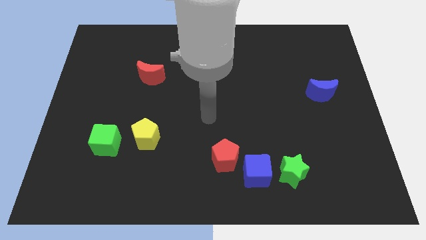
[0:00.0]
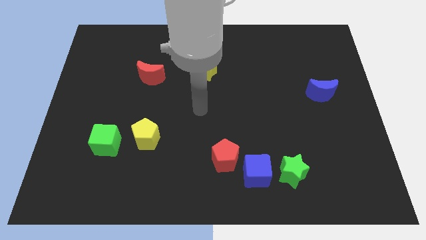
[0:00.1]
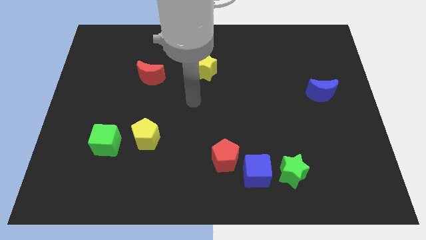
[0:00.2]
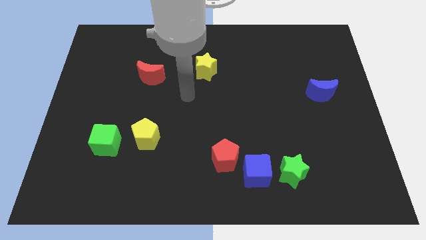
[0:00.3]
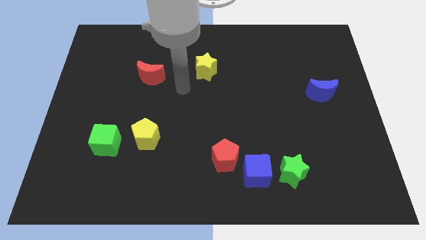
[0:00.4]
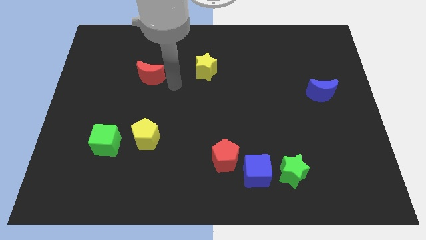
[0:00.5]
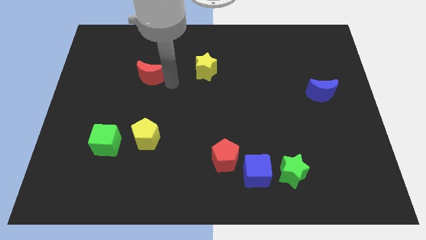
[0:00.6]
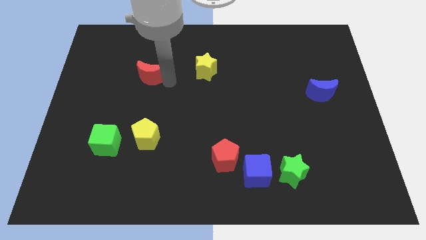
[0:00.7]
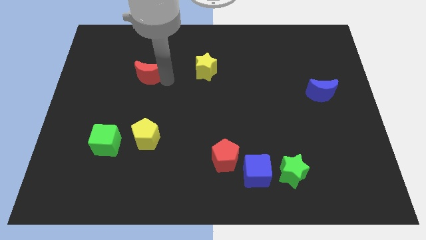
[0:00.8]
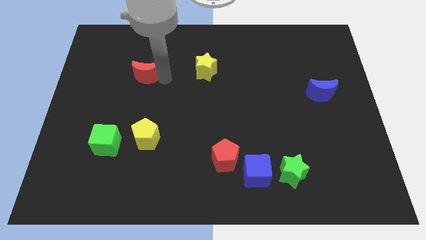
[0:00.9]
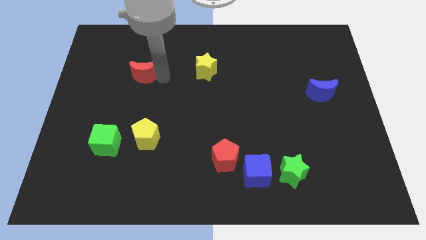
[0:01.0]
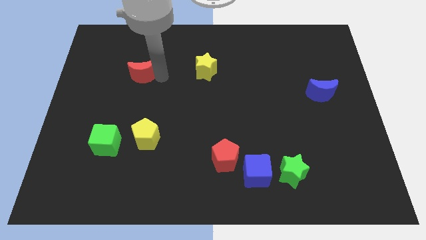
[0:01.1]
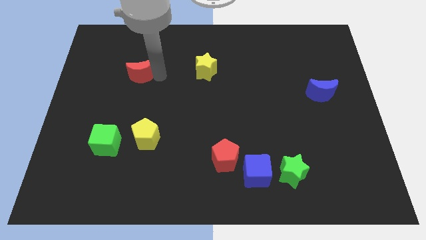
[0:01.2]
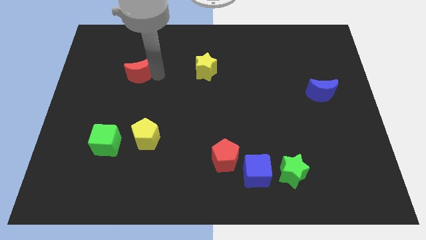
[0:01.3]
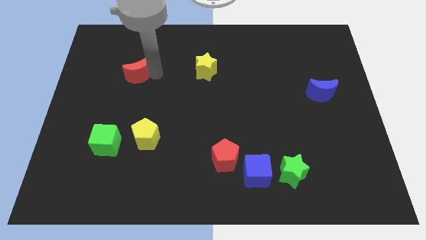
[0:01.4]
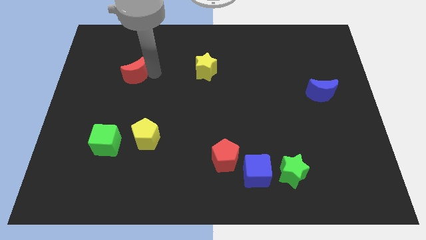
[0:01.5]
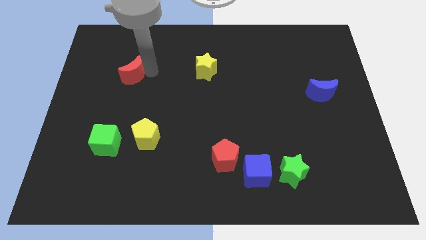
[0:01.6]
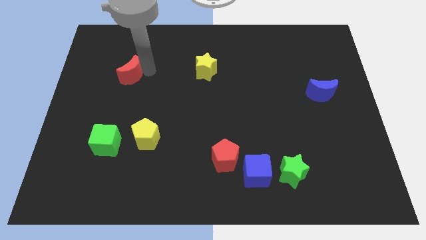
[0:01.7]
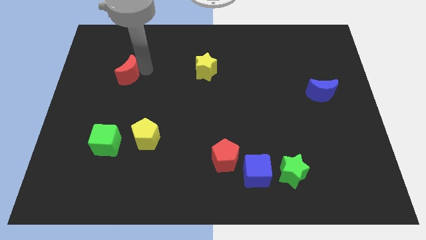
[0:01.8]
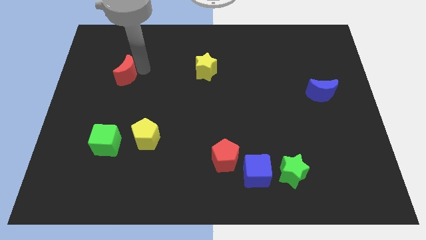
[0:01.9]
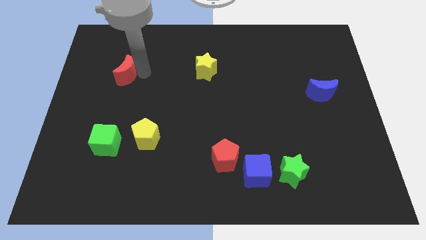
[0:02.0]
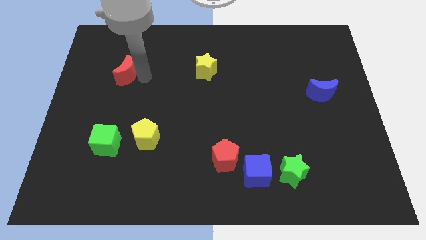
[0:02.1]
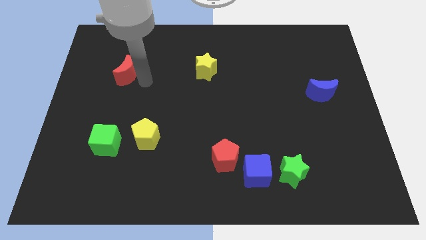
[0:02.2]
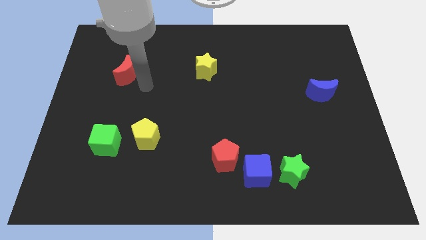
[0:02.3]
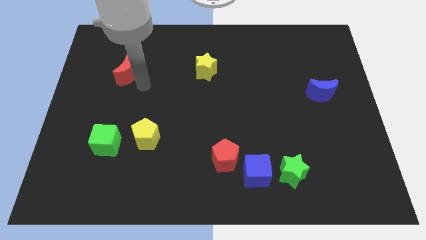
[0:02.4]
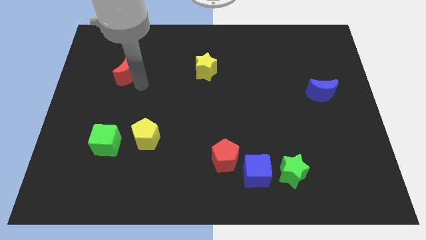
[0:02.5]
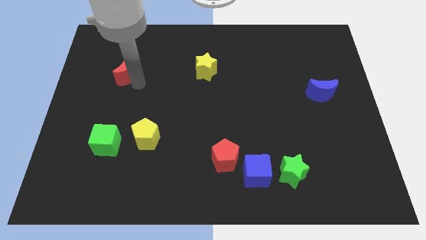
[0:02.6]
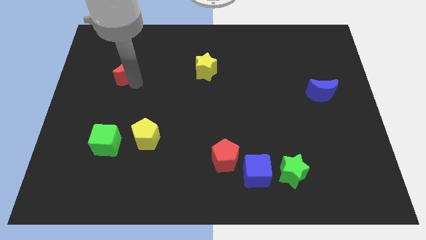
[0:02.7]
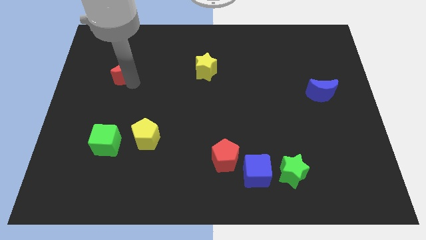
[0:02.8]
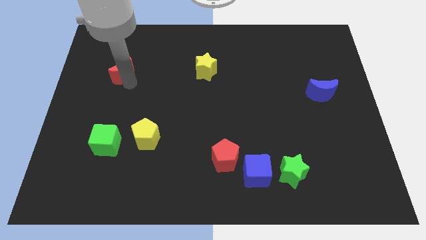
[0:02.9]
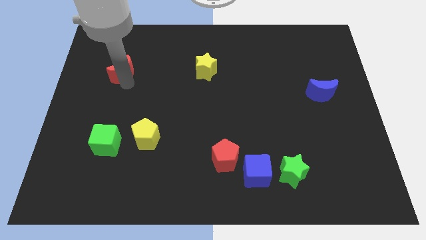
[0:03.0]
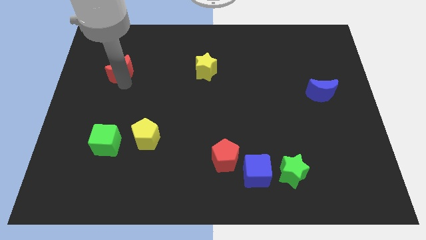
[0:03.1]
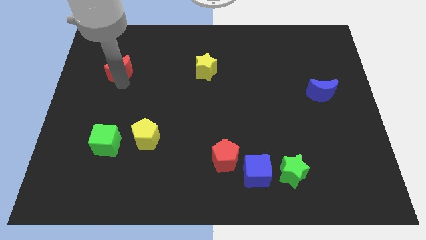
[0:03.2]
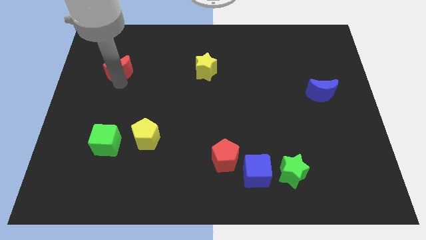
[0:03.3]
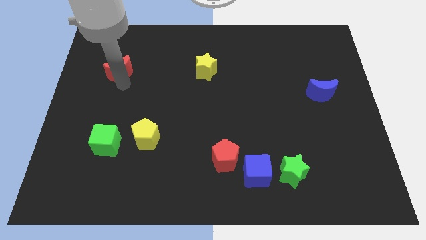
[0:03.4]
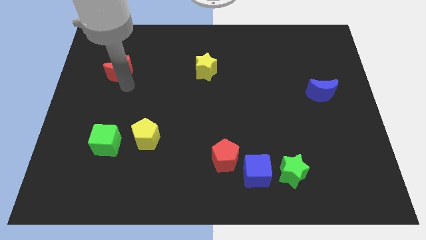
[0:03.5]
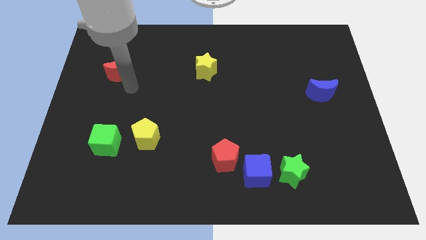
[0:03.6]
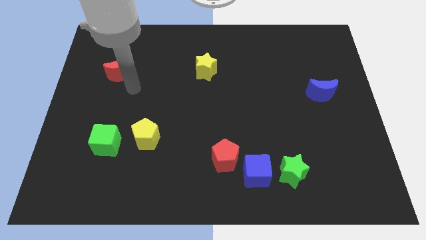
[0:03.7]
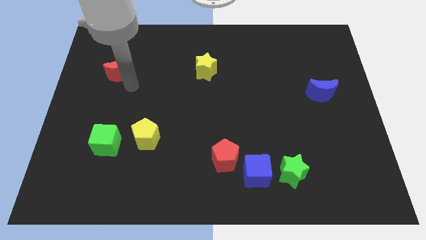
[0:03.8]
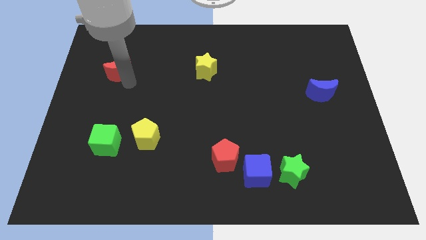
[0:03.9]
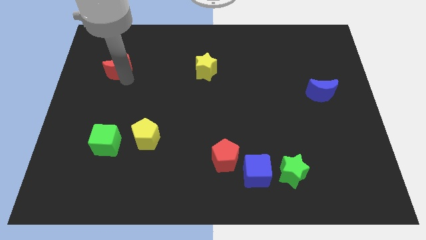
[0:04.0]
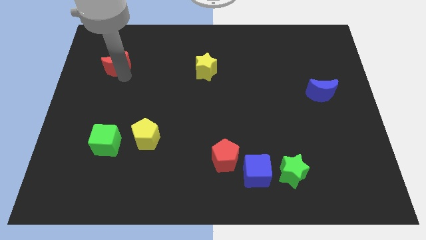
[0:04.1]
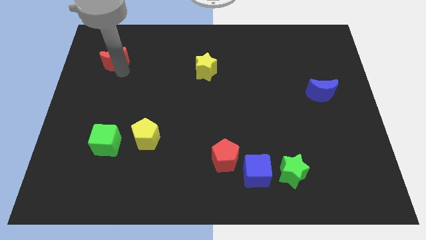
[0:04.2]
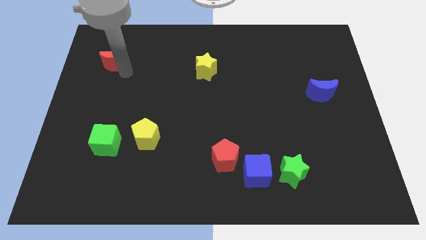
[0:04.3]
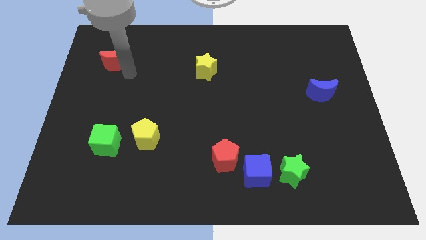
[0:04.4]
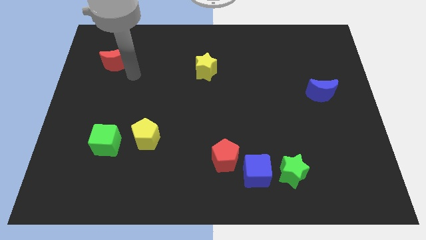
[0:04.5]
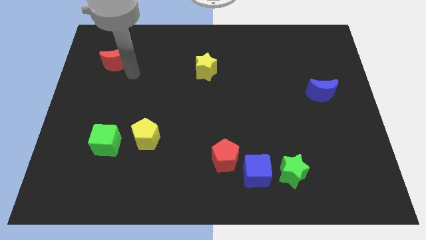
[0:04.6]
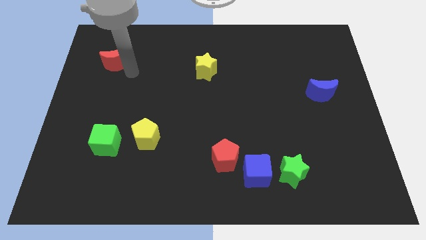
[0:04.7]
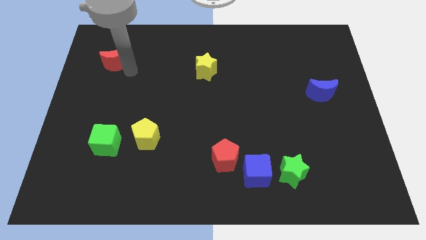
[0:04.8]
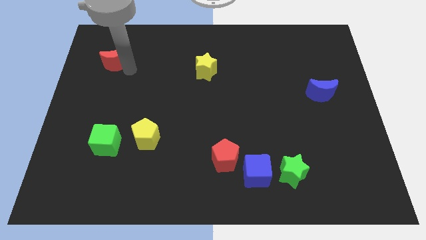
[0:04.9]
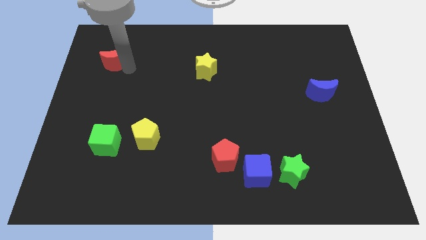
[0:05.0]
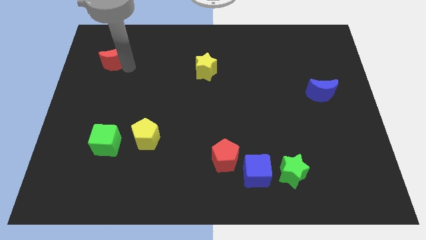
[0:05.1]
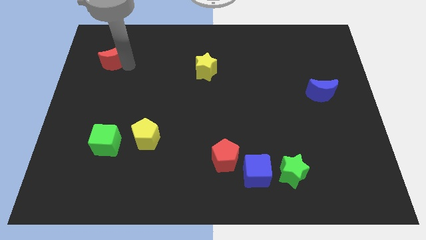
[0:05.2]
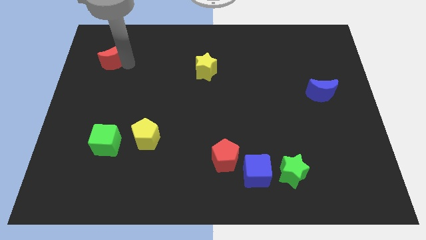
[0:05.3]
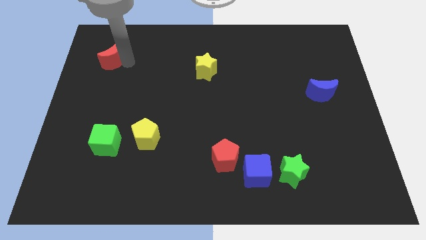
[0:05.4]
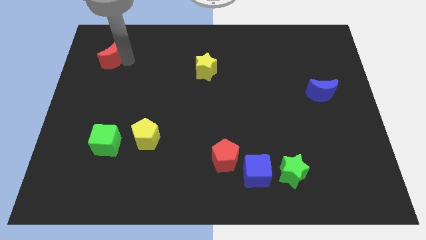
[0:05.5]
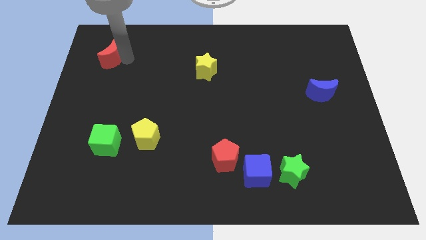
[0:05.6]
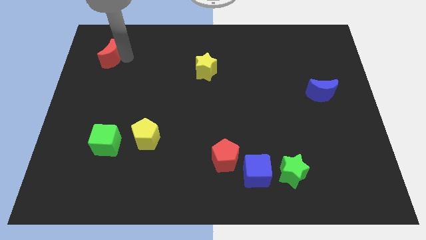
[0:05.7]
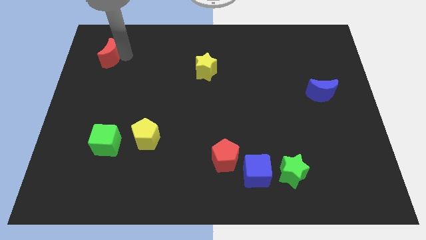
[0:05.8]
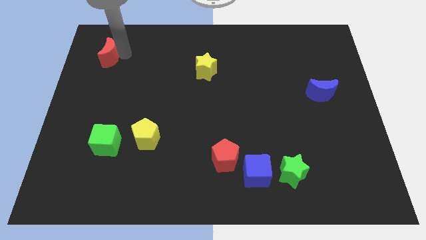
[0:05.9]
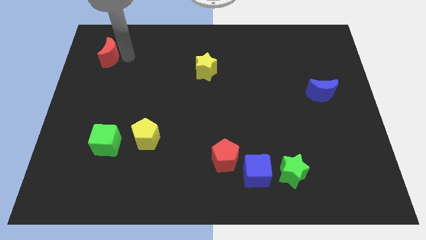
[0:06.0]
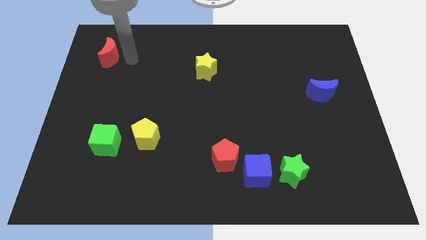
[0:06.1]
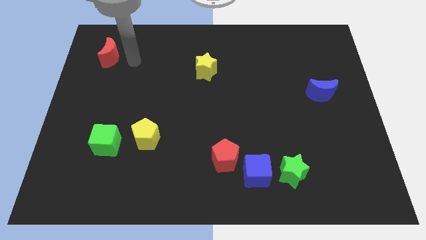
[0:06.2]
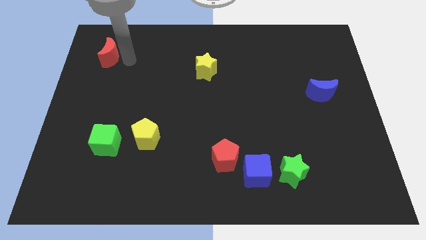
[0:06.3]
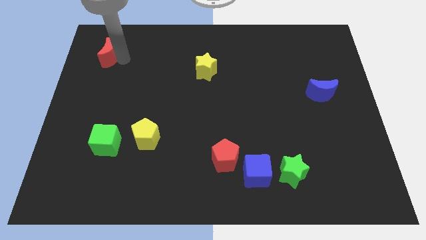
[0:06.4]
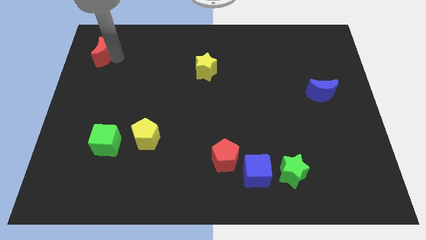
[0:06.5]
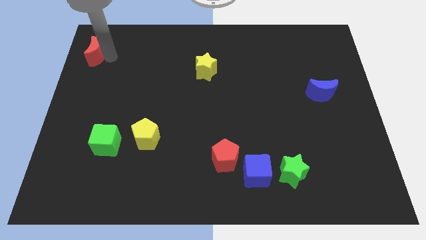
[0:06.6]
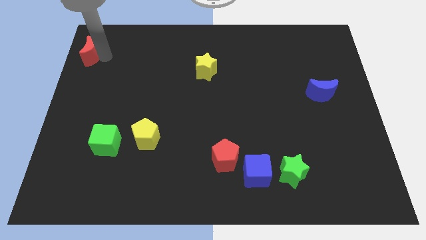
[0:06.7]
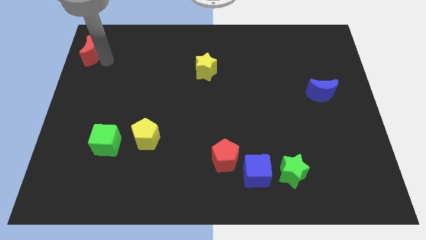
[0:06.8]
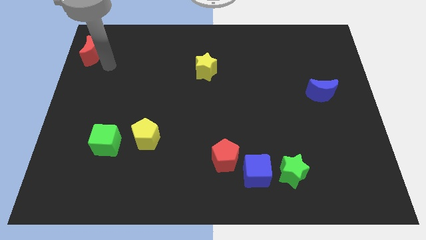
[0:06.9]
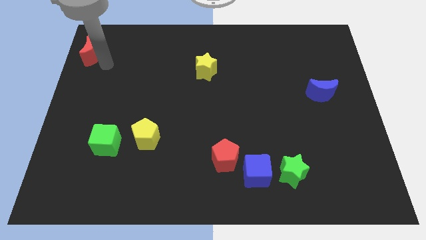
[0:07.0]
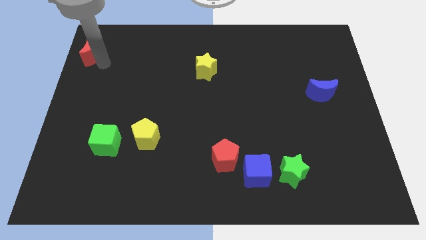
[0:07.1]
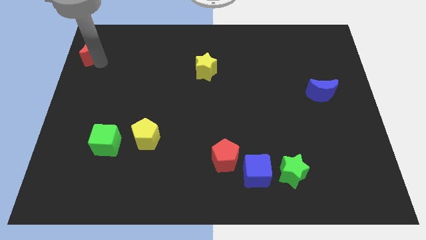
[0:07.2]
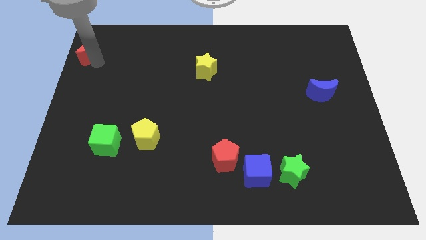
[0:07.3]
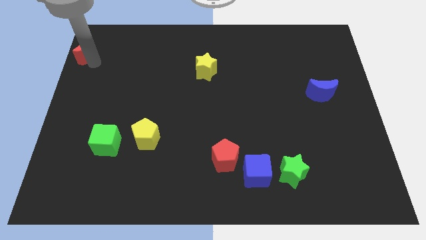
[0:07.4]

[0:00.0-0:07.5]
put the red moon to the top left
